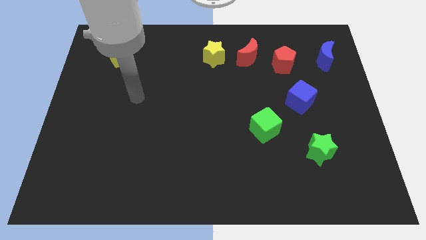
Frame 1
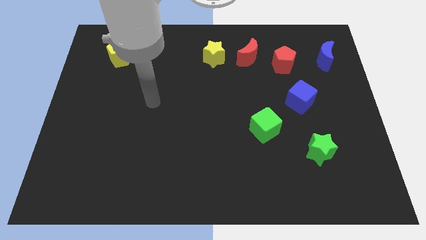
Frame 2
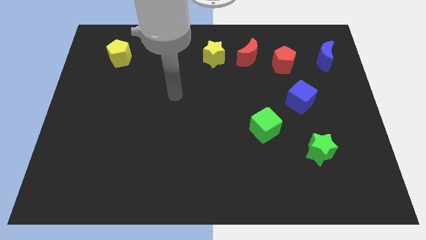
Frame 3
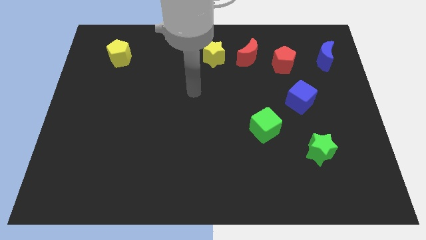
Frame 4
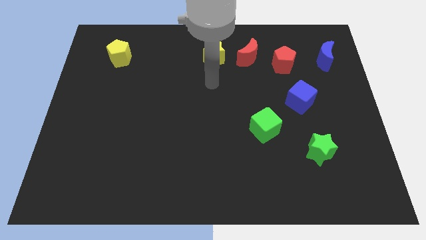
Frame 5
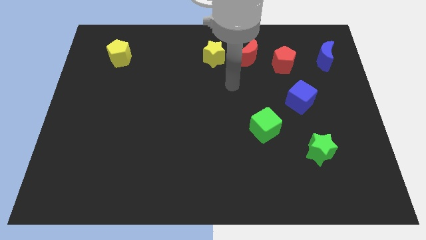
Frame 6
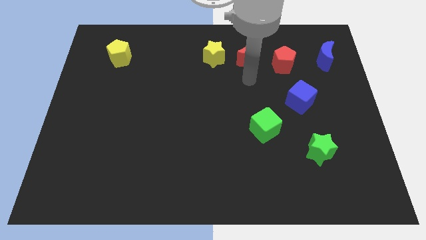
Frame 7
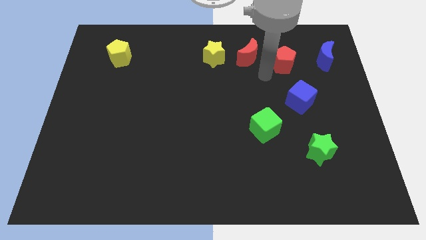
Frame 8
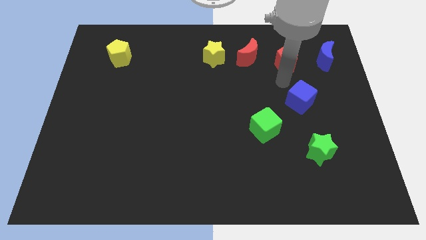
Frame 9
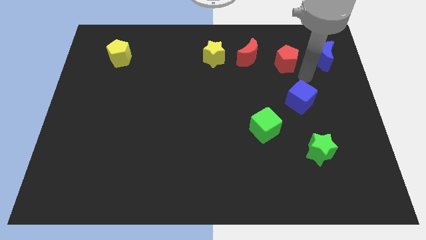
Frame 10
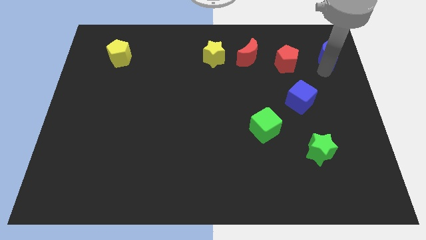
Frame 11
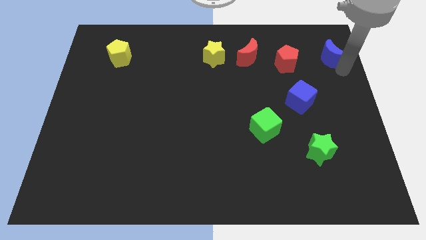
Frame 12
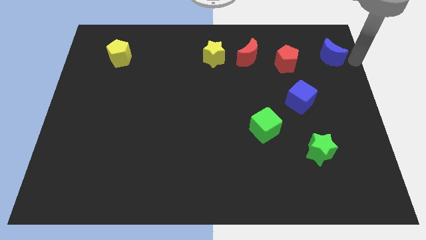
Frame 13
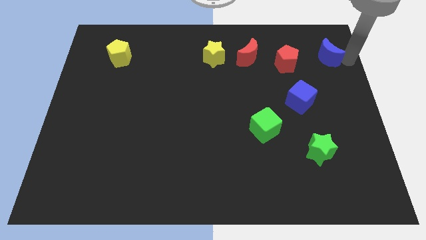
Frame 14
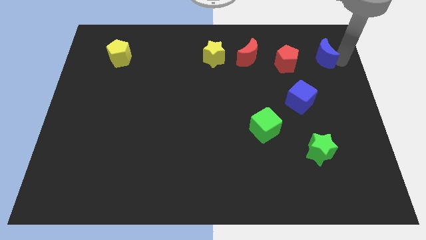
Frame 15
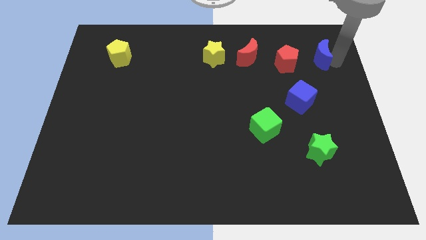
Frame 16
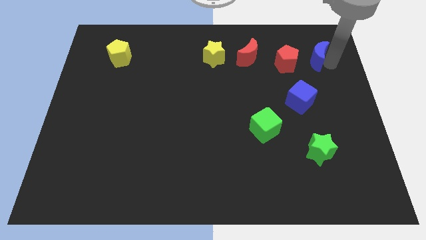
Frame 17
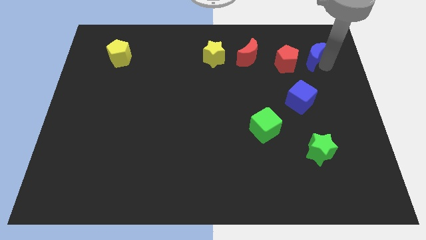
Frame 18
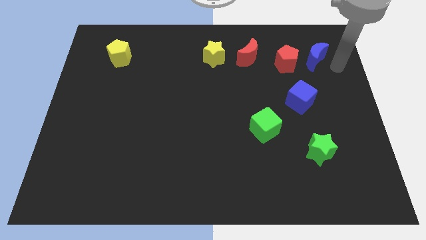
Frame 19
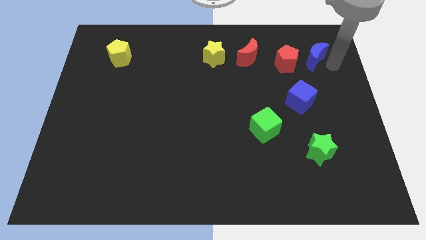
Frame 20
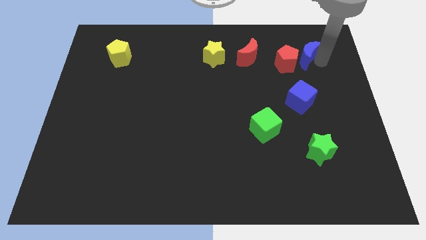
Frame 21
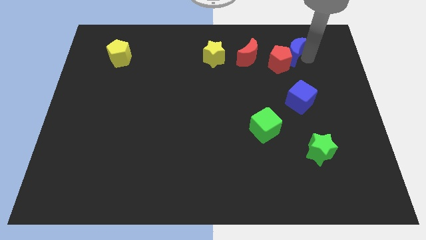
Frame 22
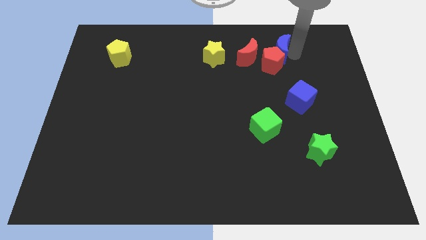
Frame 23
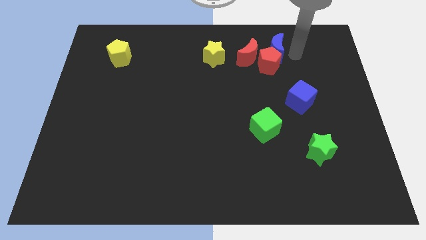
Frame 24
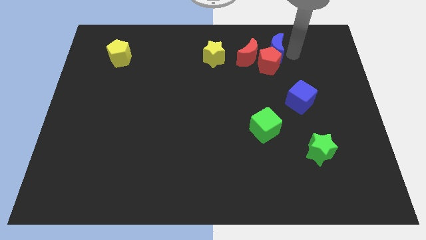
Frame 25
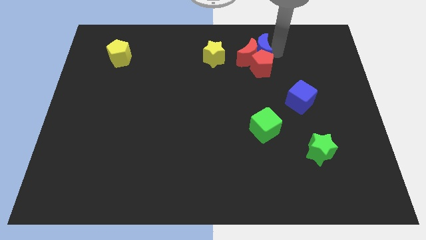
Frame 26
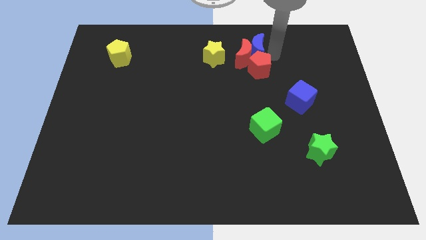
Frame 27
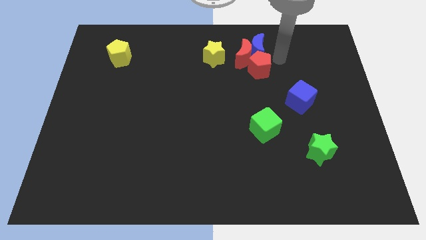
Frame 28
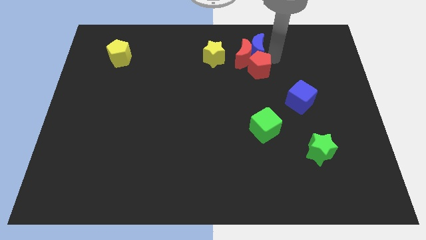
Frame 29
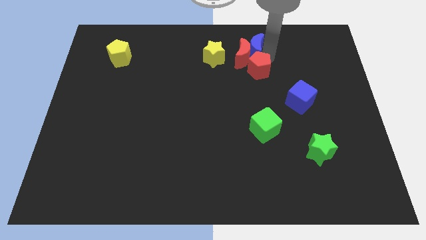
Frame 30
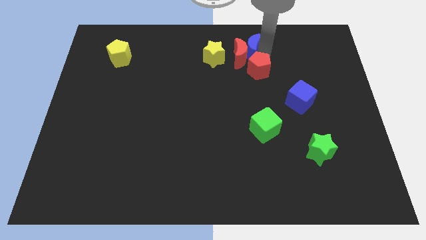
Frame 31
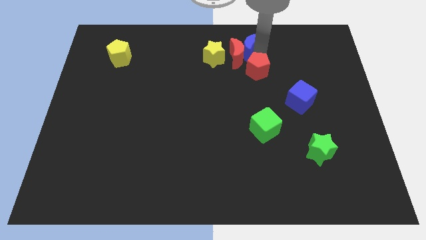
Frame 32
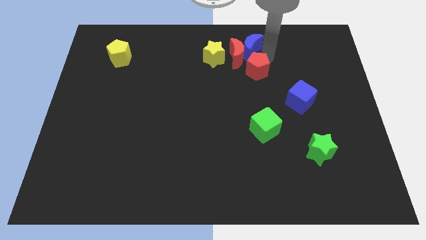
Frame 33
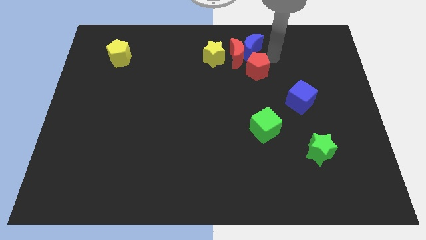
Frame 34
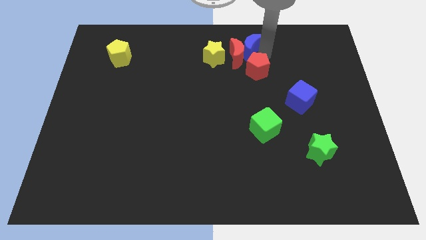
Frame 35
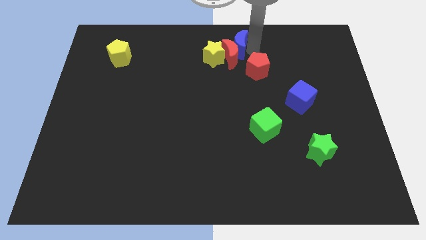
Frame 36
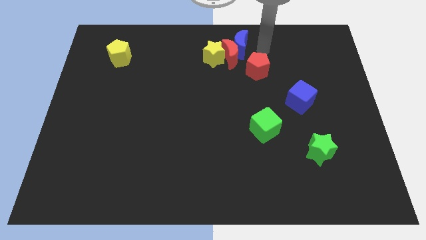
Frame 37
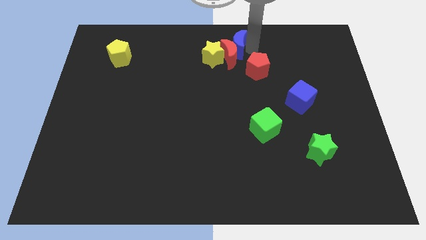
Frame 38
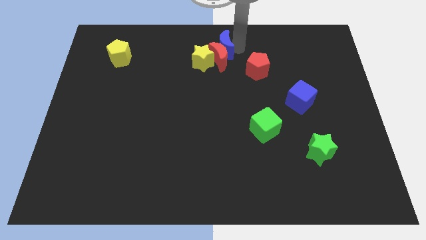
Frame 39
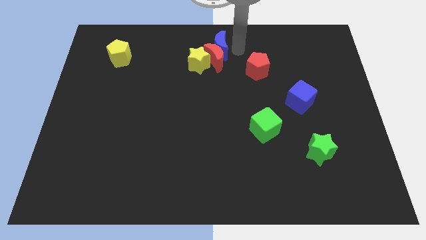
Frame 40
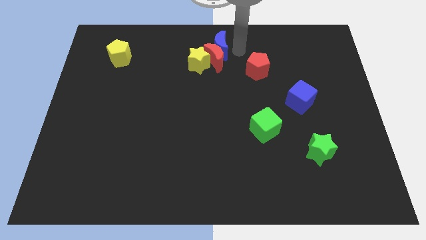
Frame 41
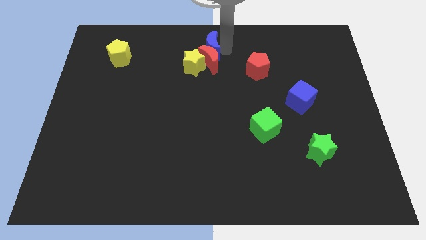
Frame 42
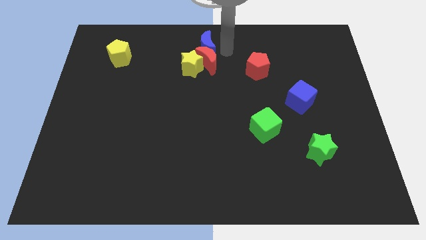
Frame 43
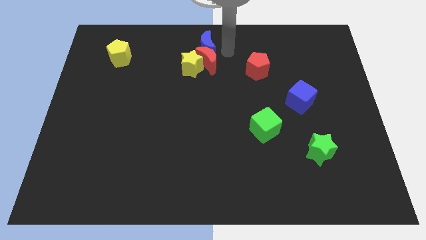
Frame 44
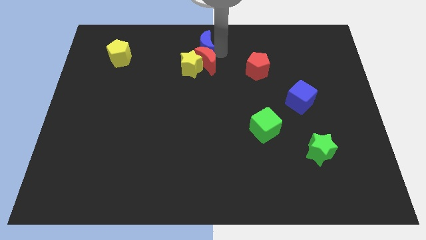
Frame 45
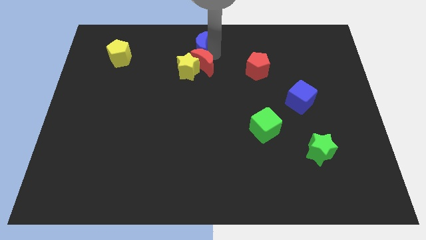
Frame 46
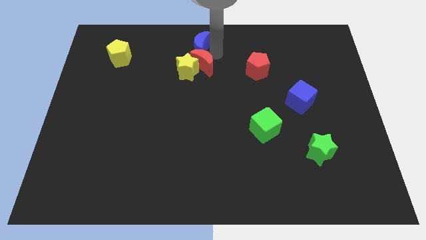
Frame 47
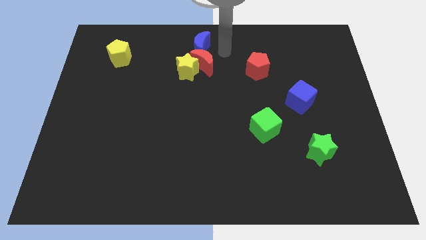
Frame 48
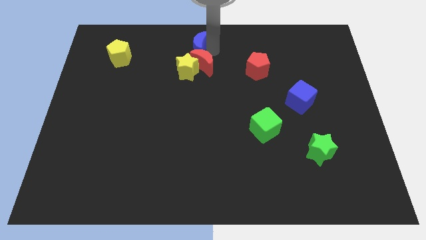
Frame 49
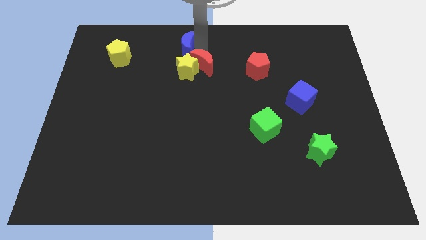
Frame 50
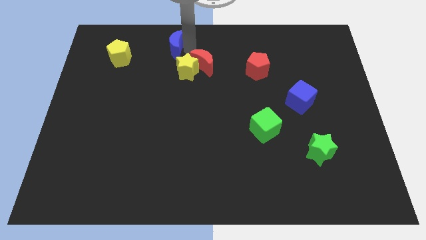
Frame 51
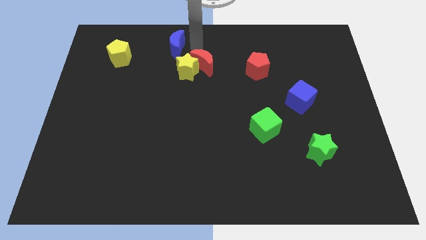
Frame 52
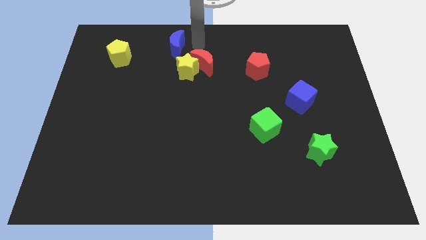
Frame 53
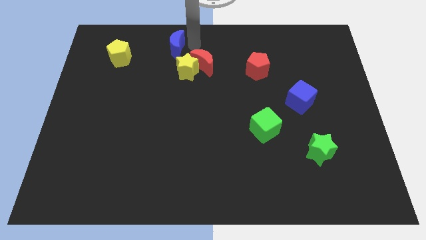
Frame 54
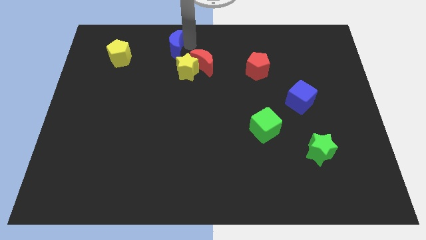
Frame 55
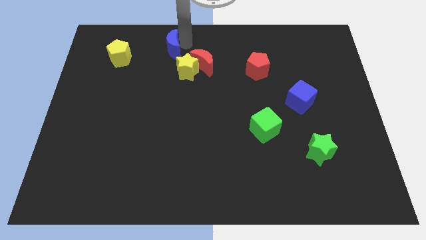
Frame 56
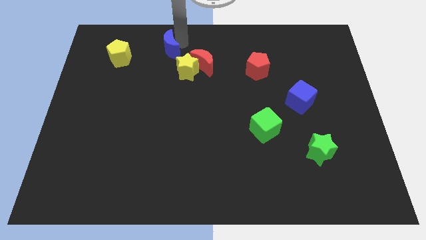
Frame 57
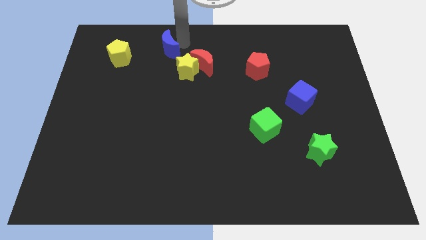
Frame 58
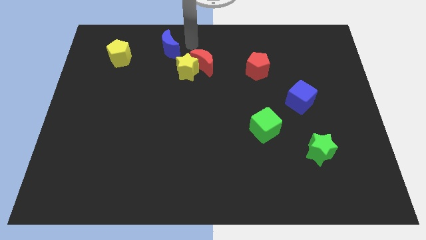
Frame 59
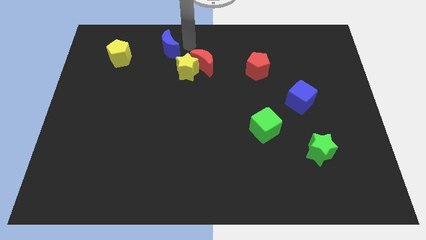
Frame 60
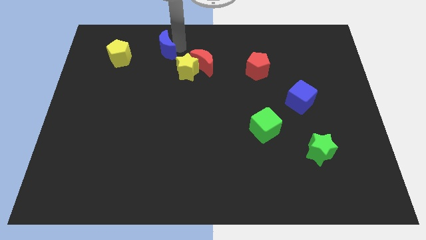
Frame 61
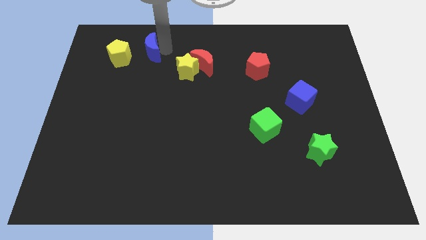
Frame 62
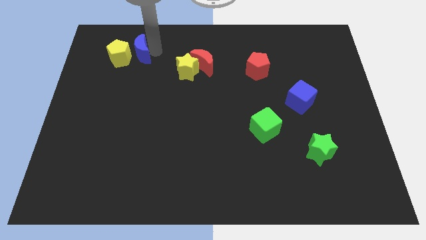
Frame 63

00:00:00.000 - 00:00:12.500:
slide the blue moon towards the yellow pentagon
